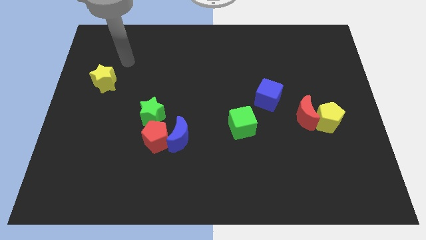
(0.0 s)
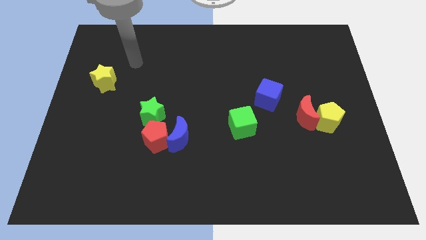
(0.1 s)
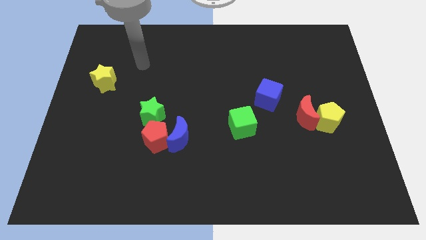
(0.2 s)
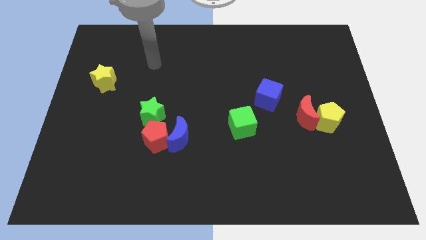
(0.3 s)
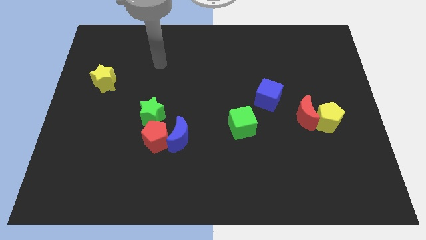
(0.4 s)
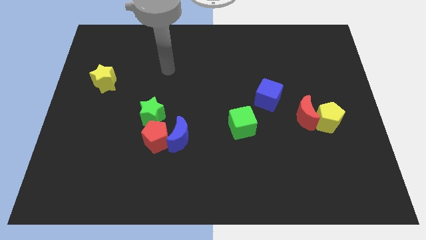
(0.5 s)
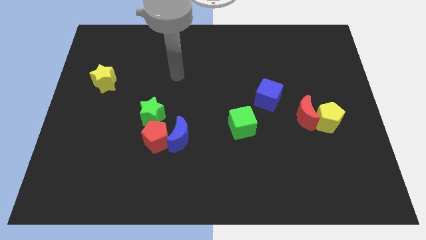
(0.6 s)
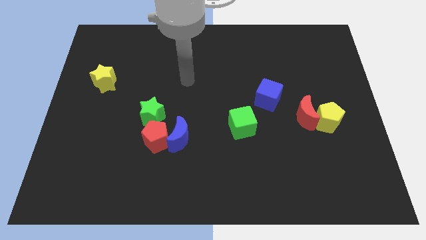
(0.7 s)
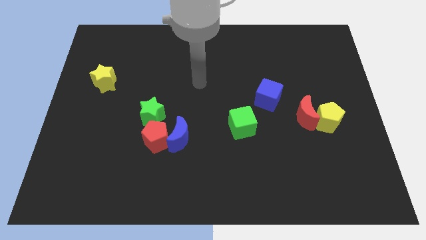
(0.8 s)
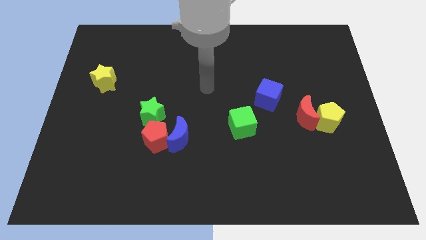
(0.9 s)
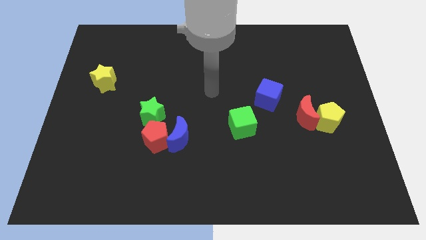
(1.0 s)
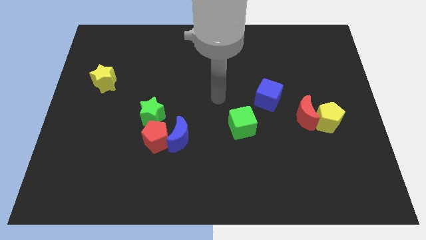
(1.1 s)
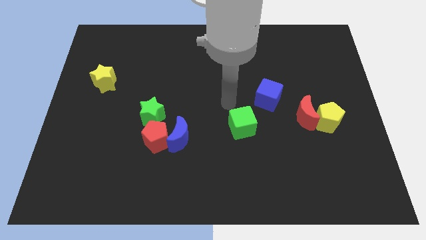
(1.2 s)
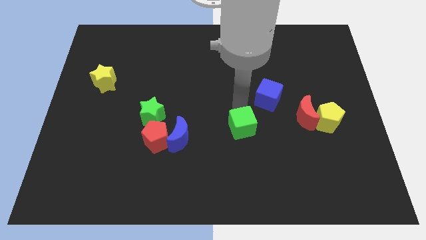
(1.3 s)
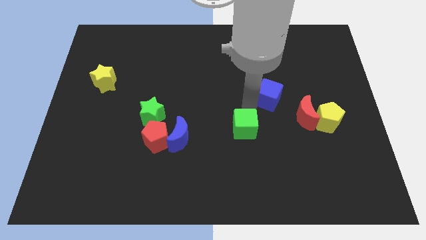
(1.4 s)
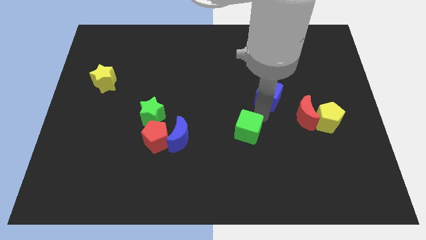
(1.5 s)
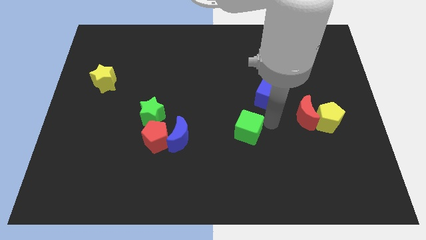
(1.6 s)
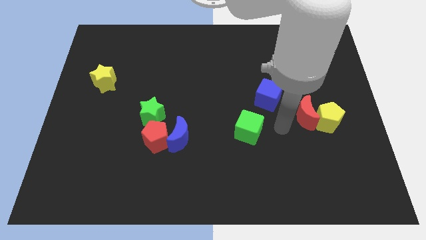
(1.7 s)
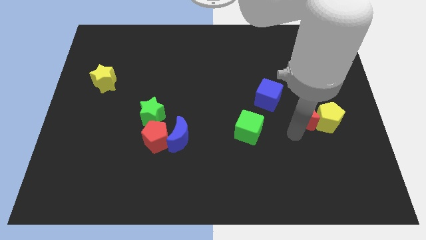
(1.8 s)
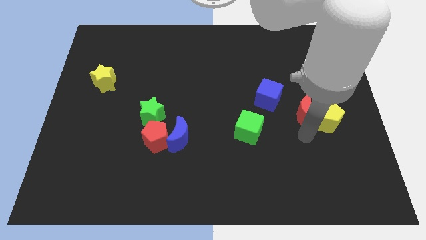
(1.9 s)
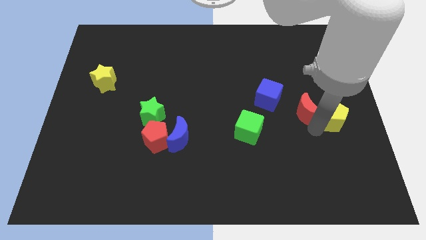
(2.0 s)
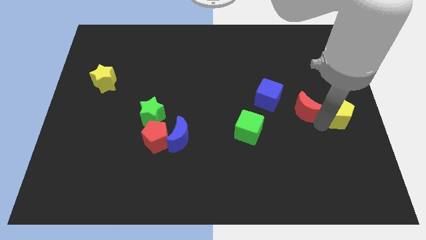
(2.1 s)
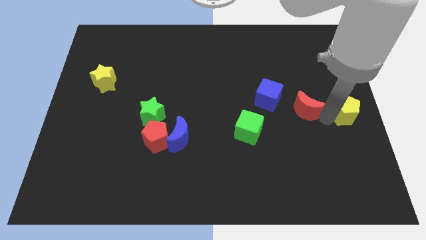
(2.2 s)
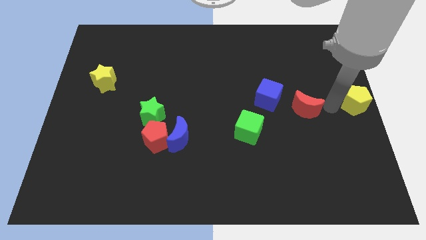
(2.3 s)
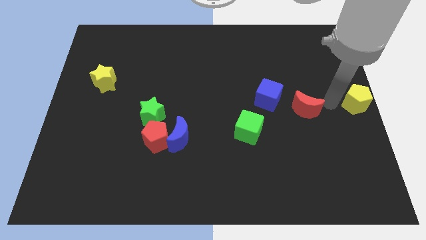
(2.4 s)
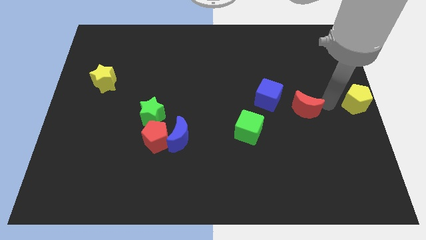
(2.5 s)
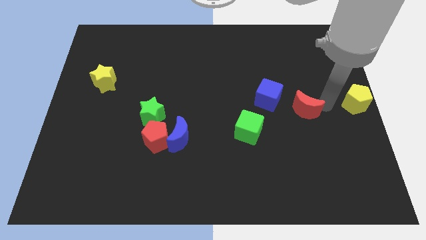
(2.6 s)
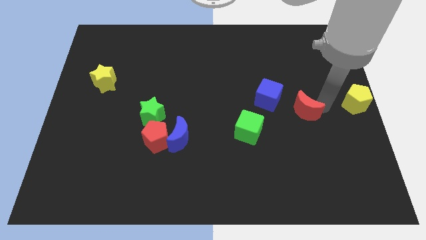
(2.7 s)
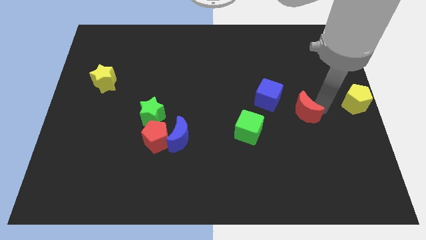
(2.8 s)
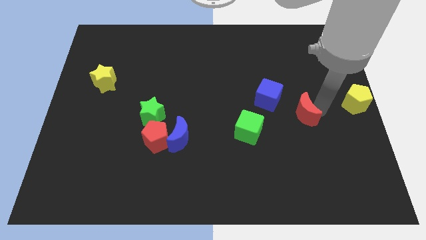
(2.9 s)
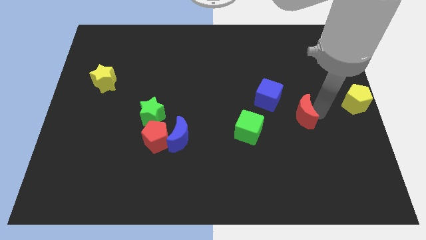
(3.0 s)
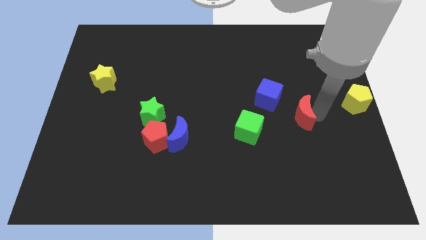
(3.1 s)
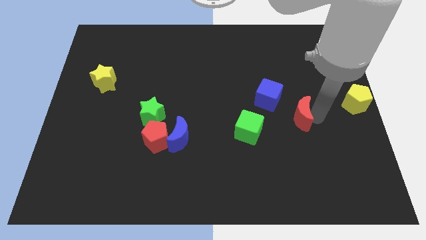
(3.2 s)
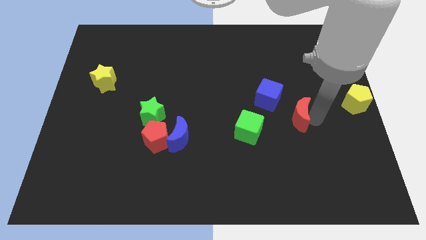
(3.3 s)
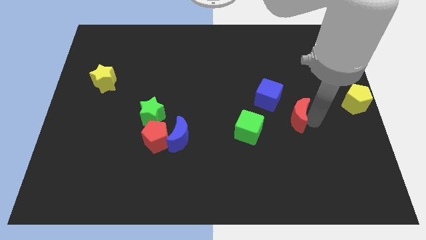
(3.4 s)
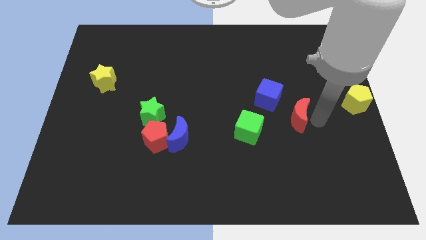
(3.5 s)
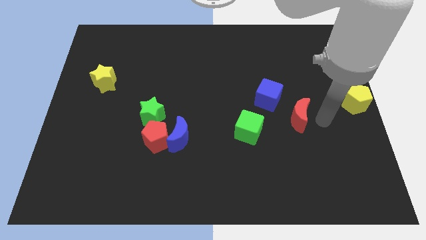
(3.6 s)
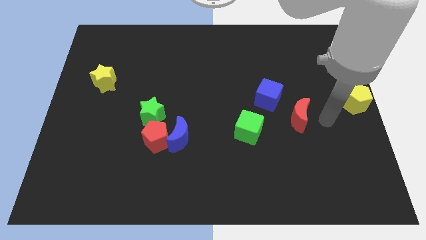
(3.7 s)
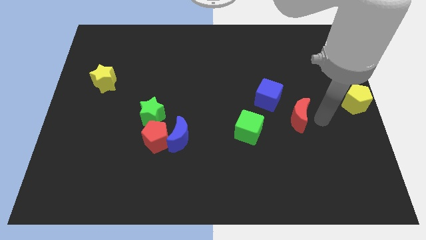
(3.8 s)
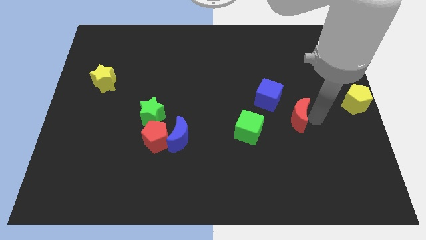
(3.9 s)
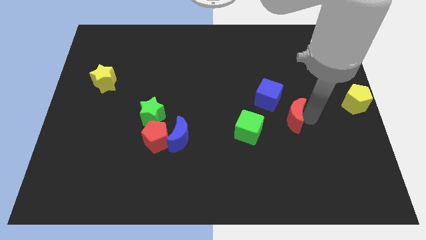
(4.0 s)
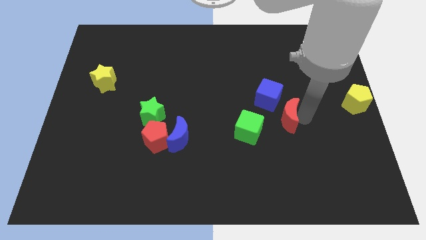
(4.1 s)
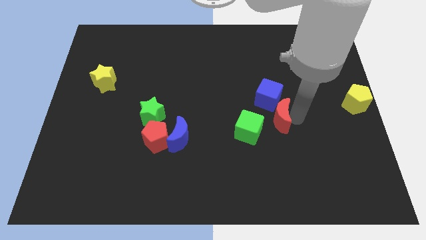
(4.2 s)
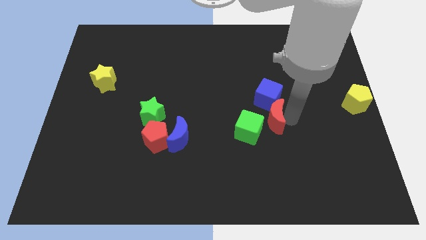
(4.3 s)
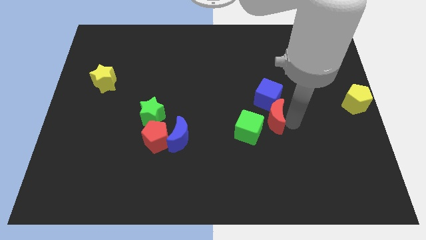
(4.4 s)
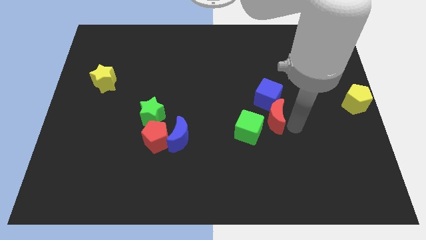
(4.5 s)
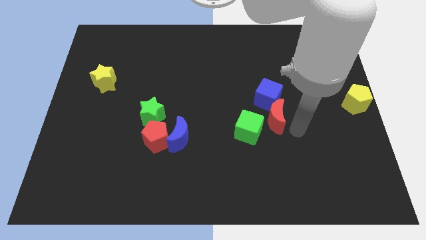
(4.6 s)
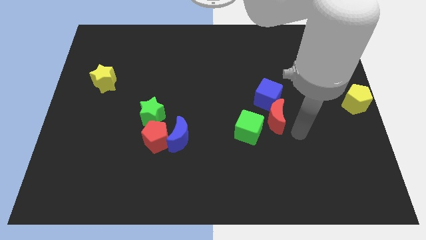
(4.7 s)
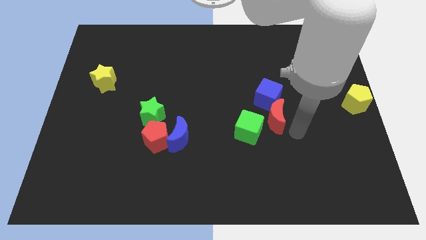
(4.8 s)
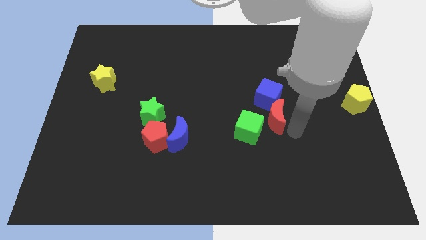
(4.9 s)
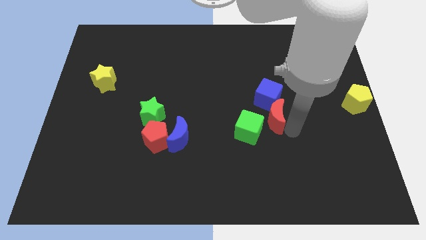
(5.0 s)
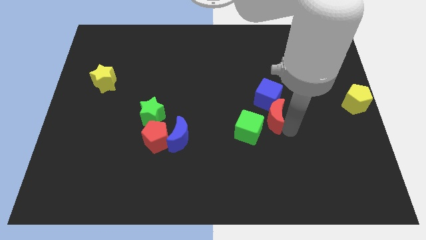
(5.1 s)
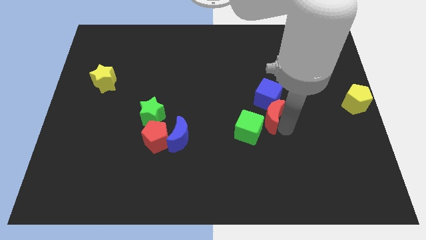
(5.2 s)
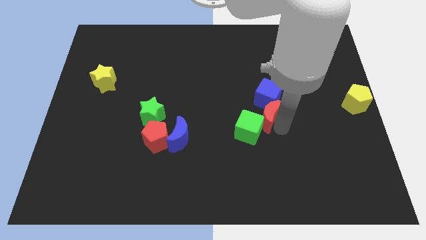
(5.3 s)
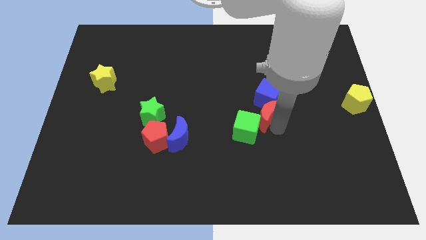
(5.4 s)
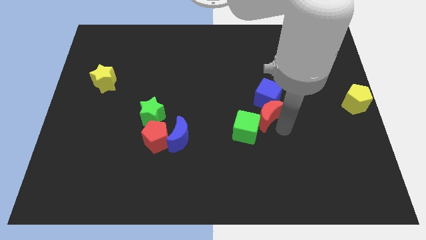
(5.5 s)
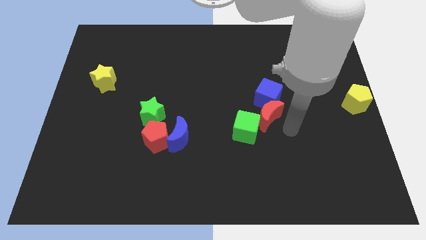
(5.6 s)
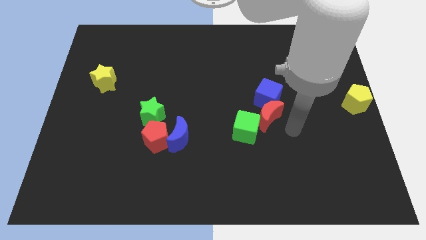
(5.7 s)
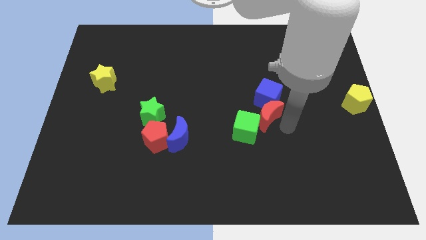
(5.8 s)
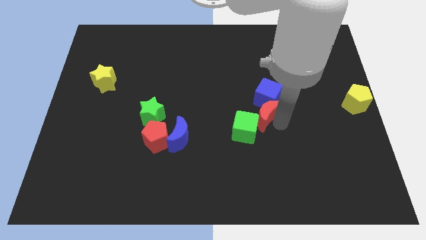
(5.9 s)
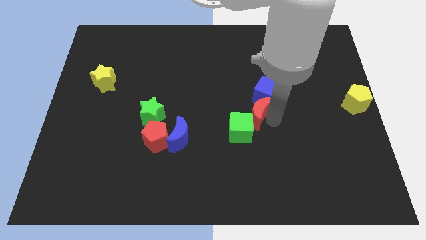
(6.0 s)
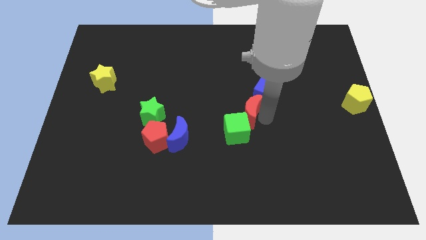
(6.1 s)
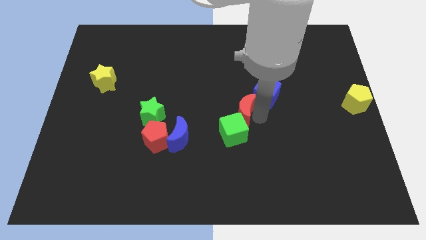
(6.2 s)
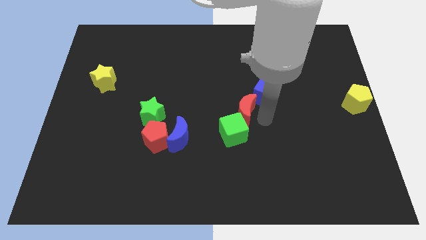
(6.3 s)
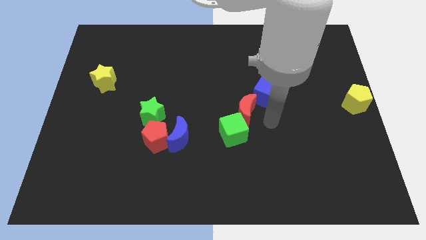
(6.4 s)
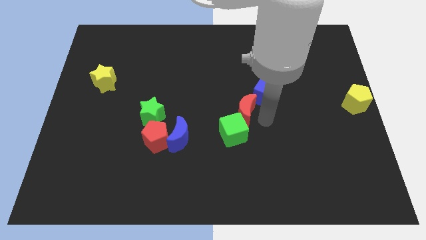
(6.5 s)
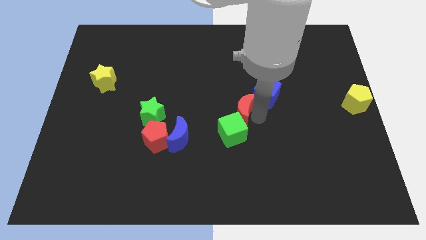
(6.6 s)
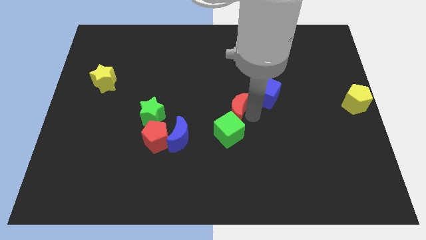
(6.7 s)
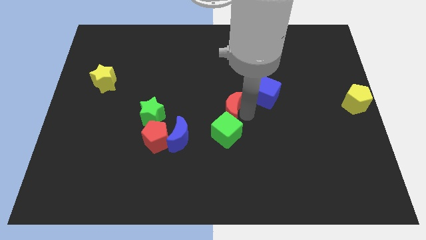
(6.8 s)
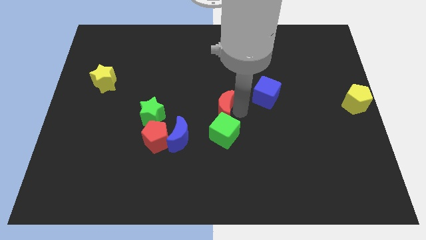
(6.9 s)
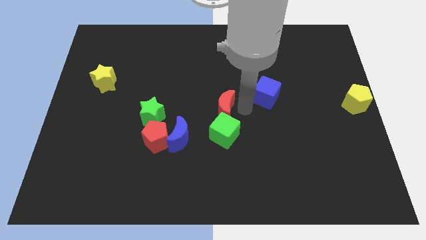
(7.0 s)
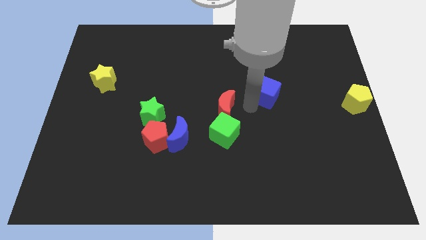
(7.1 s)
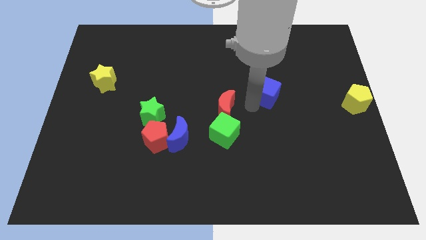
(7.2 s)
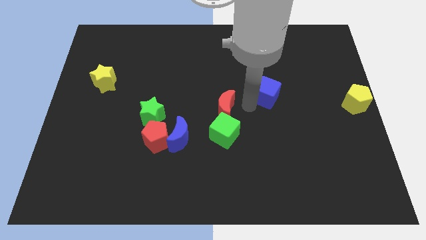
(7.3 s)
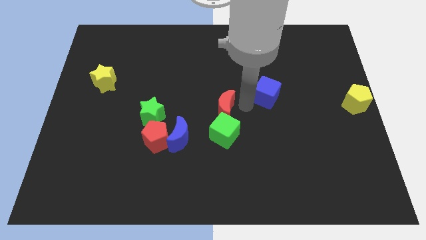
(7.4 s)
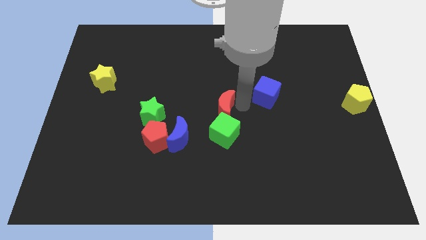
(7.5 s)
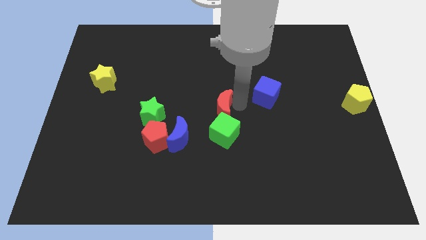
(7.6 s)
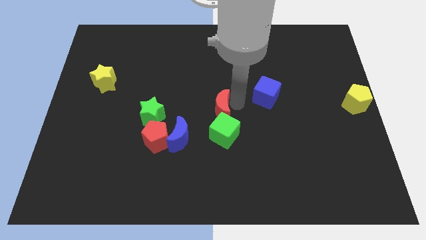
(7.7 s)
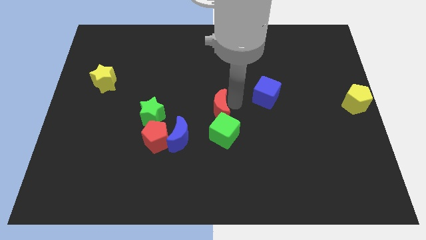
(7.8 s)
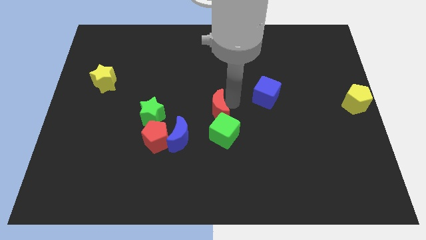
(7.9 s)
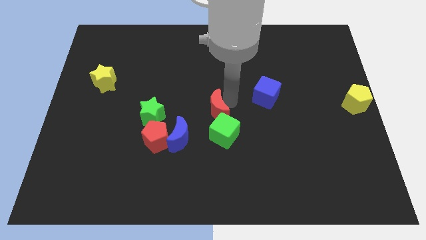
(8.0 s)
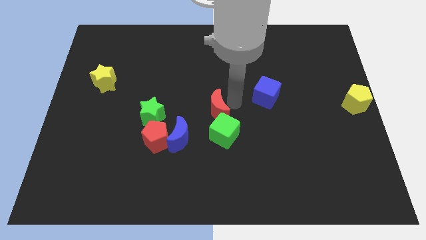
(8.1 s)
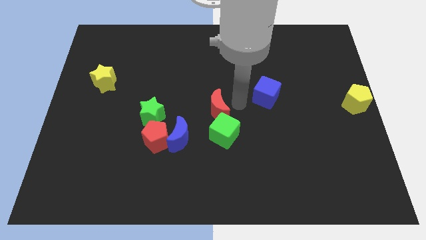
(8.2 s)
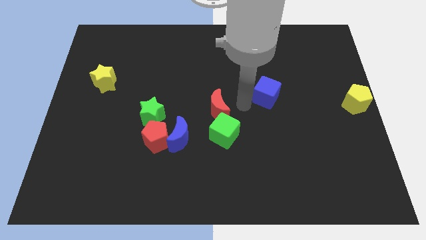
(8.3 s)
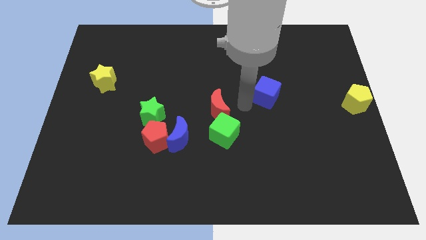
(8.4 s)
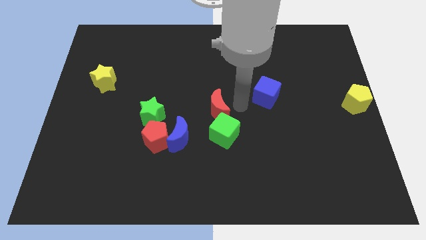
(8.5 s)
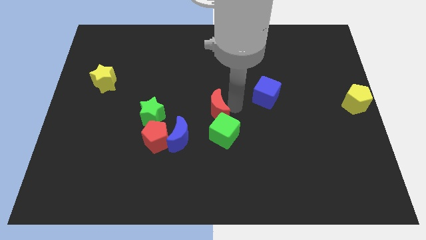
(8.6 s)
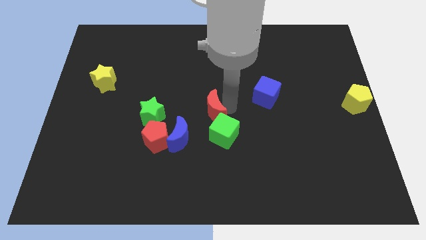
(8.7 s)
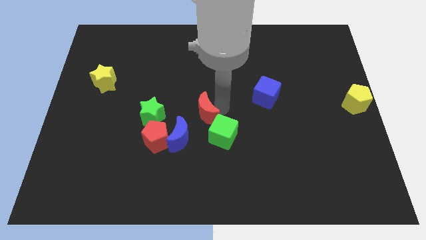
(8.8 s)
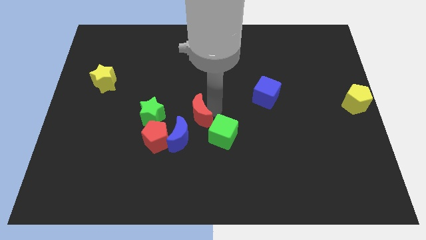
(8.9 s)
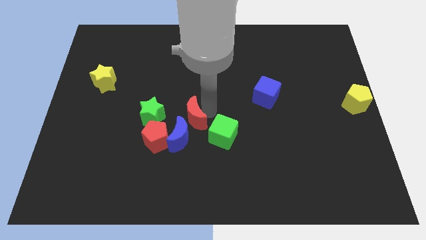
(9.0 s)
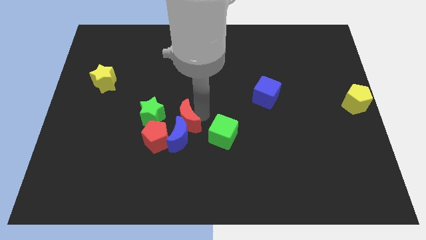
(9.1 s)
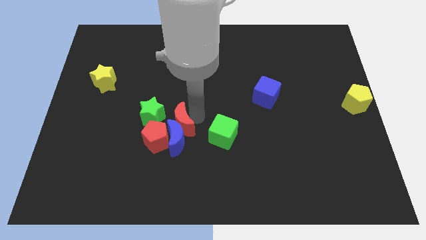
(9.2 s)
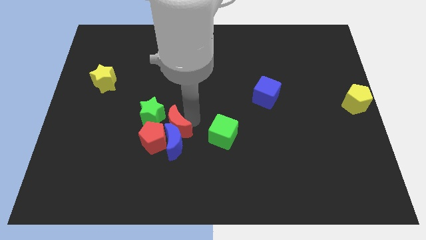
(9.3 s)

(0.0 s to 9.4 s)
move the red moon to the red pentagon
